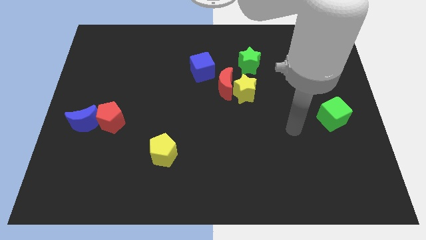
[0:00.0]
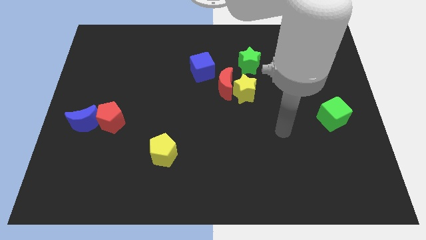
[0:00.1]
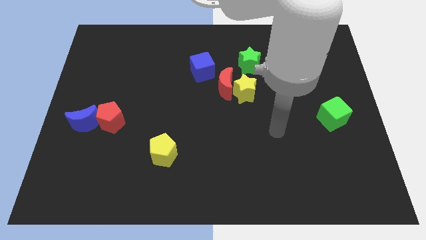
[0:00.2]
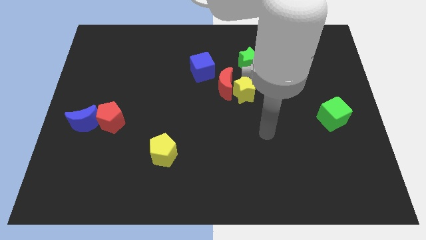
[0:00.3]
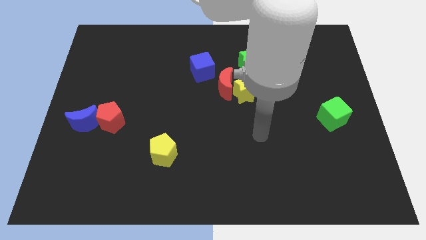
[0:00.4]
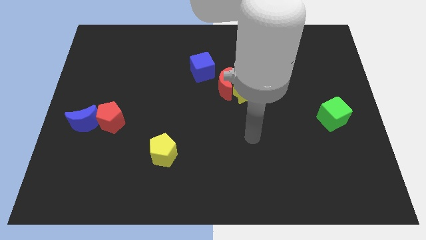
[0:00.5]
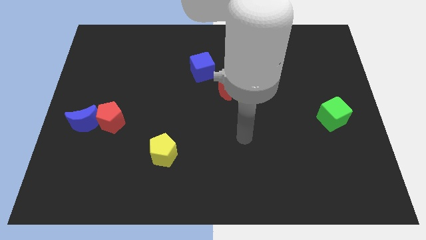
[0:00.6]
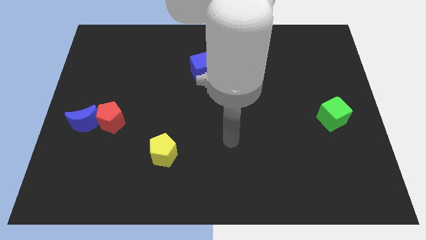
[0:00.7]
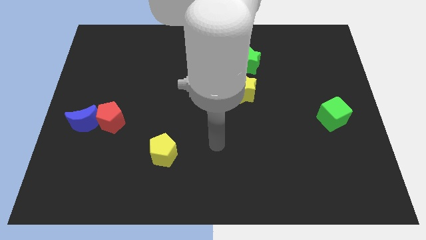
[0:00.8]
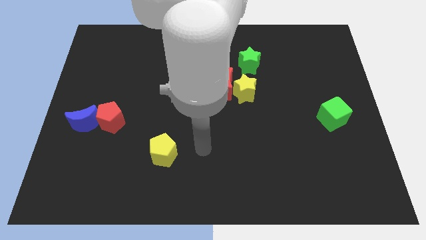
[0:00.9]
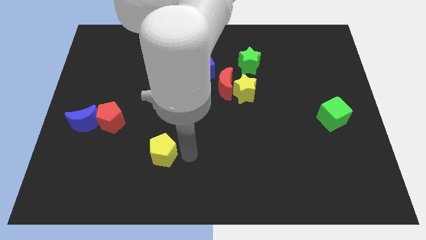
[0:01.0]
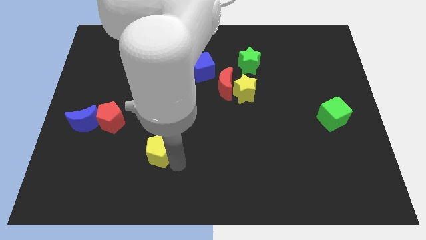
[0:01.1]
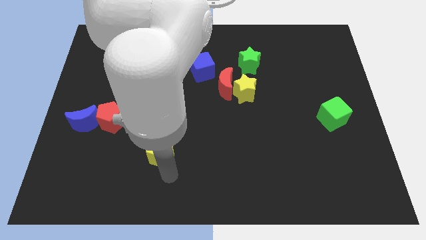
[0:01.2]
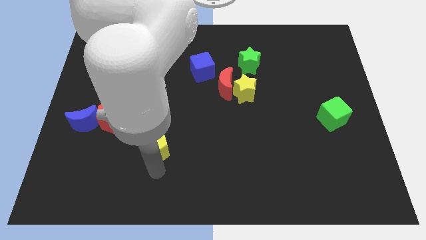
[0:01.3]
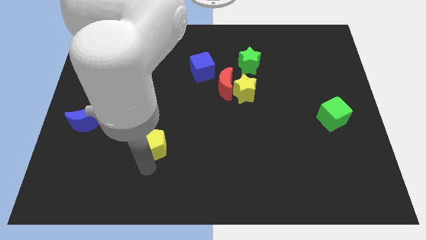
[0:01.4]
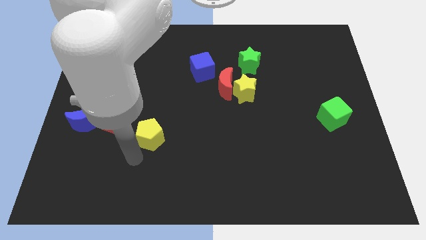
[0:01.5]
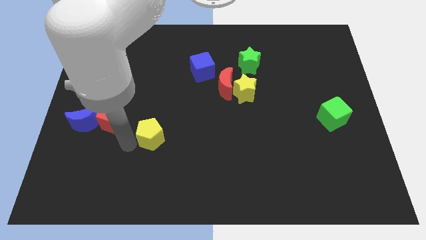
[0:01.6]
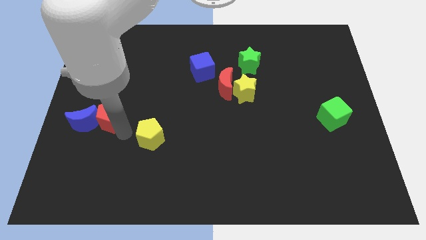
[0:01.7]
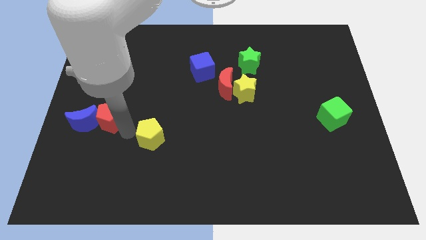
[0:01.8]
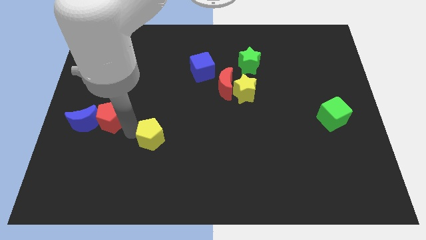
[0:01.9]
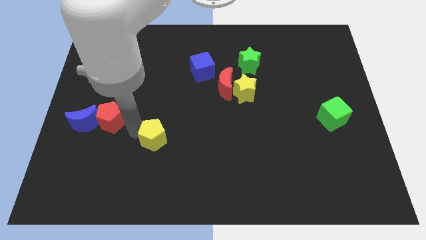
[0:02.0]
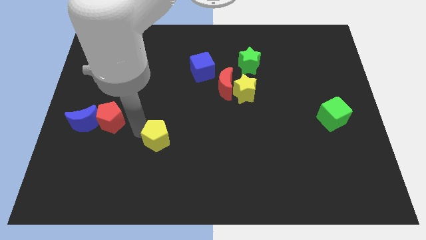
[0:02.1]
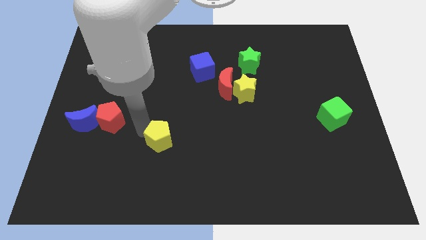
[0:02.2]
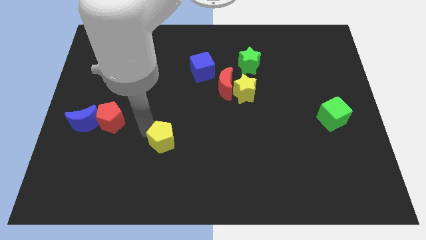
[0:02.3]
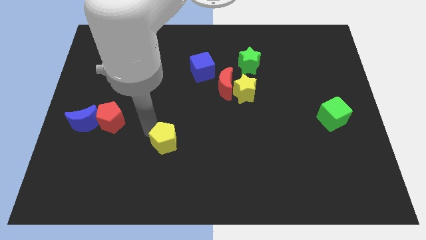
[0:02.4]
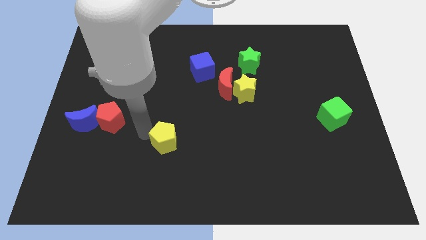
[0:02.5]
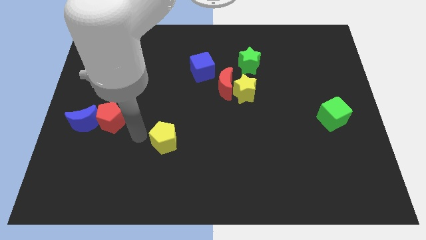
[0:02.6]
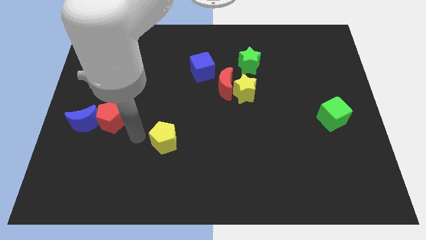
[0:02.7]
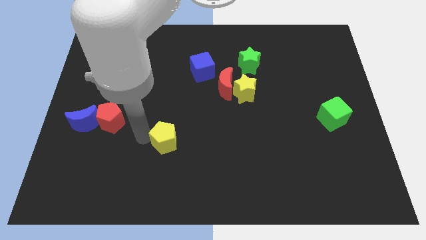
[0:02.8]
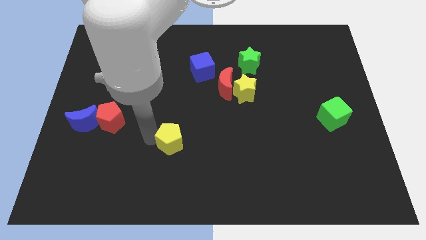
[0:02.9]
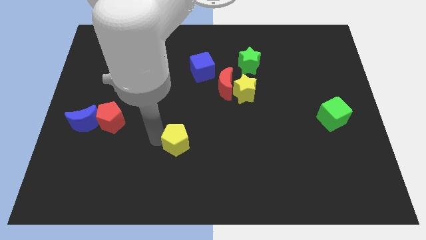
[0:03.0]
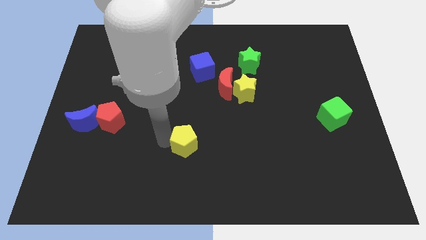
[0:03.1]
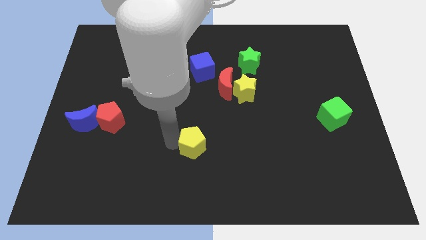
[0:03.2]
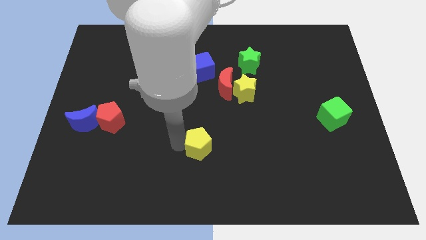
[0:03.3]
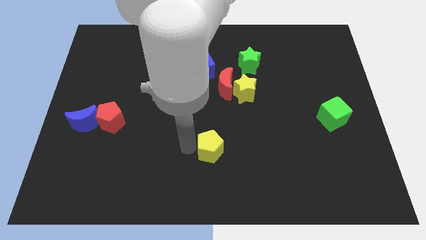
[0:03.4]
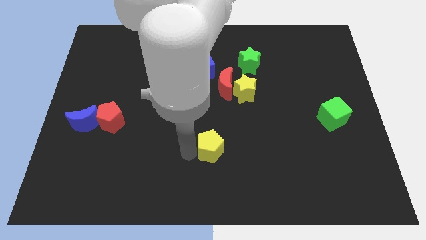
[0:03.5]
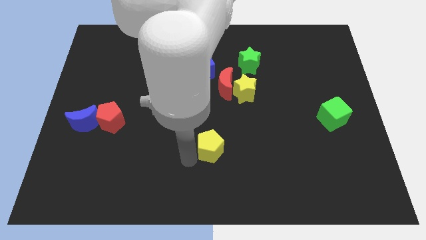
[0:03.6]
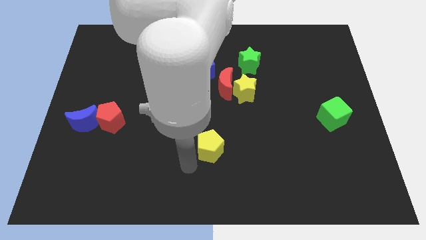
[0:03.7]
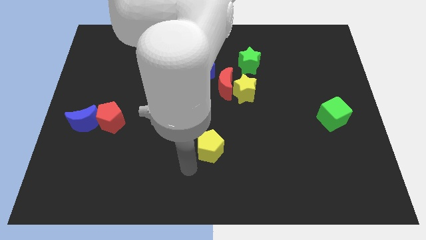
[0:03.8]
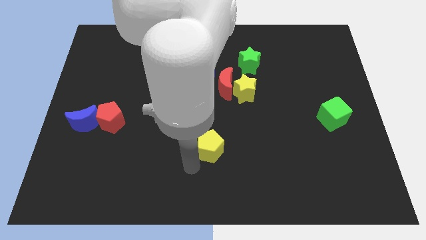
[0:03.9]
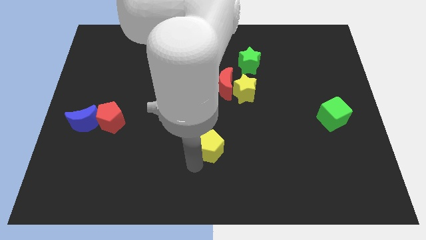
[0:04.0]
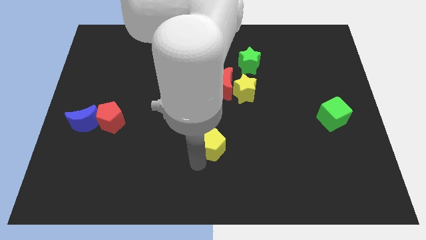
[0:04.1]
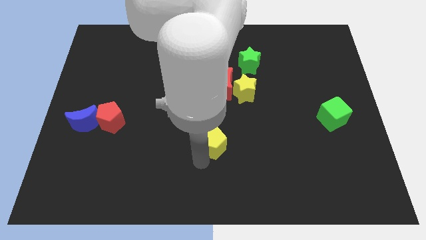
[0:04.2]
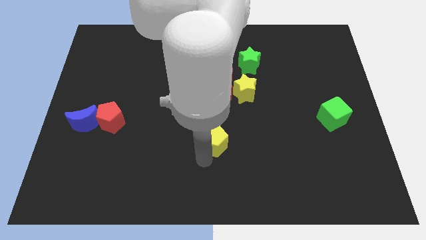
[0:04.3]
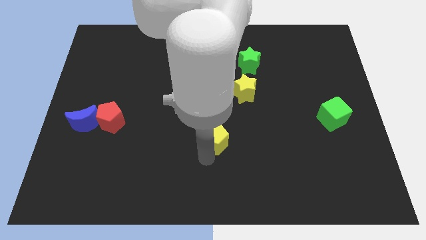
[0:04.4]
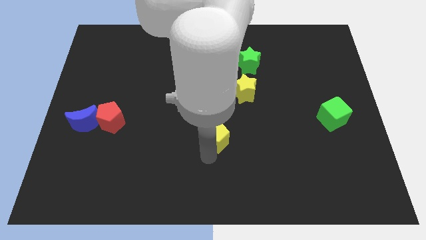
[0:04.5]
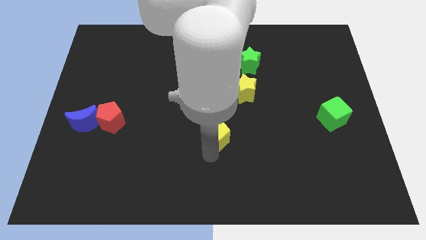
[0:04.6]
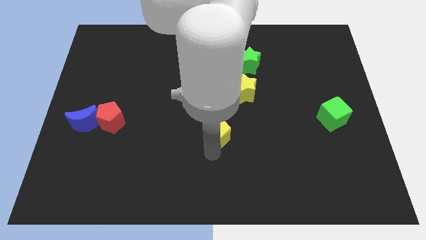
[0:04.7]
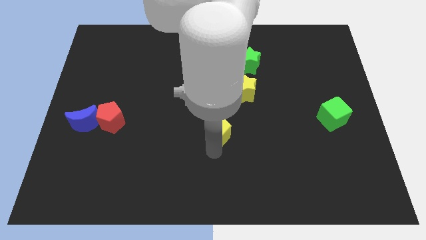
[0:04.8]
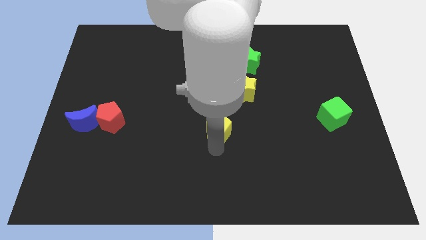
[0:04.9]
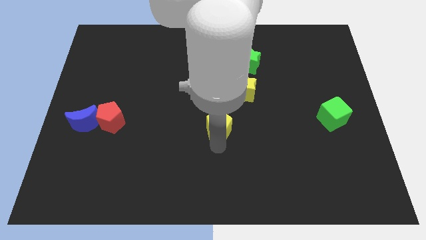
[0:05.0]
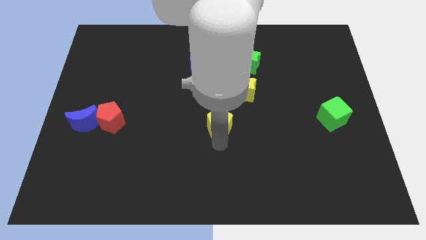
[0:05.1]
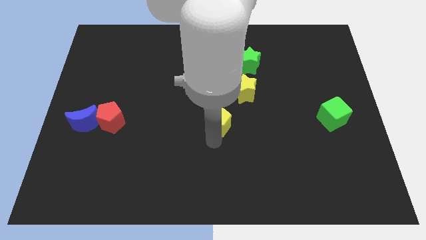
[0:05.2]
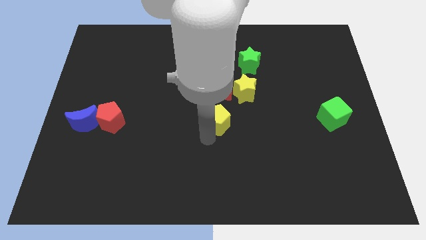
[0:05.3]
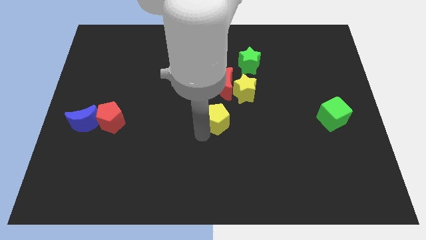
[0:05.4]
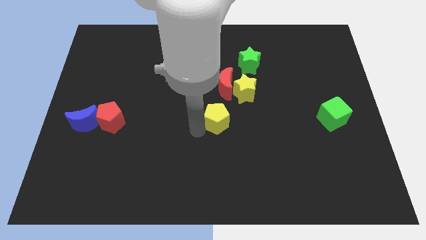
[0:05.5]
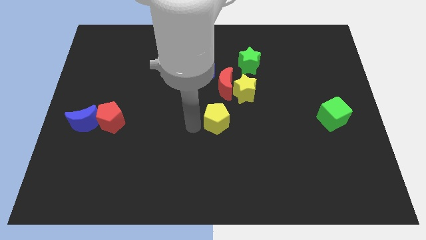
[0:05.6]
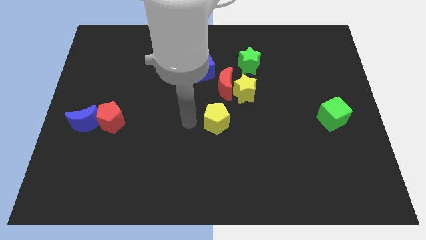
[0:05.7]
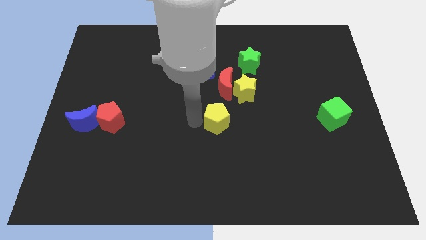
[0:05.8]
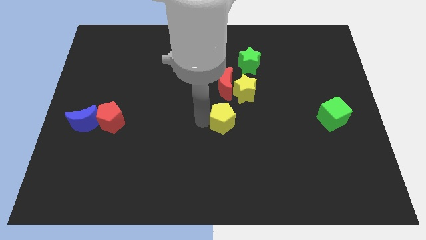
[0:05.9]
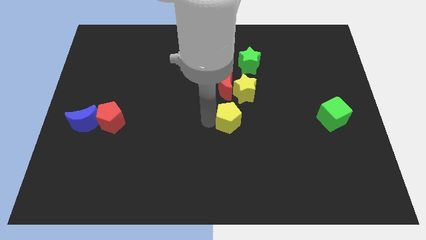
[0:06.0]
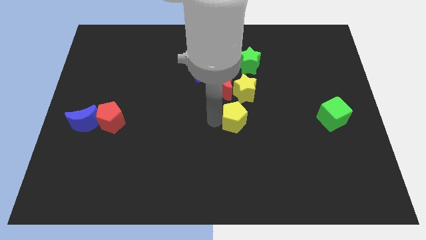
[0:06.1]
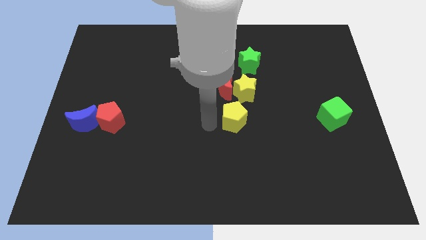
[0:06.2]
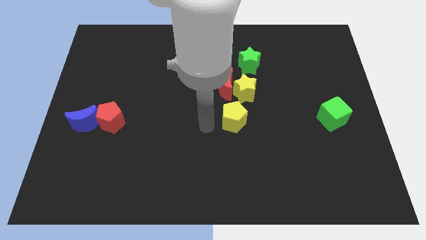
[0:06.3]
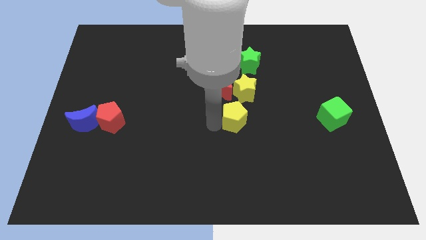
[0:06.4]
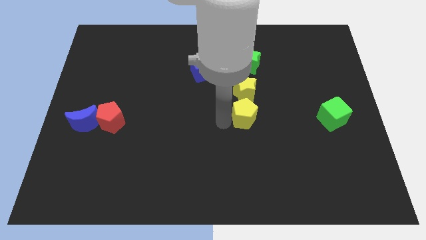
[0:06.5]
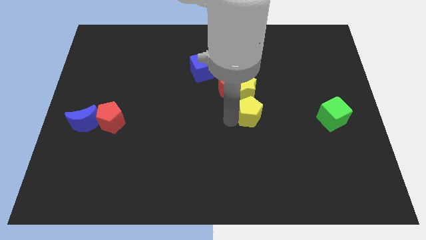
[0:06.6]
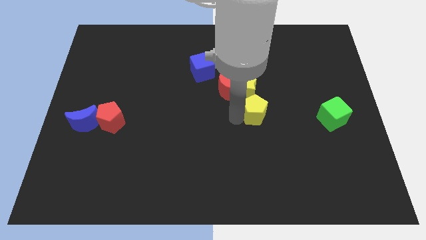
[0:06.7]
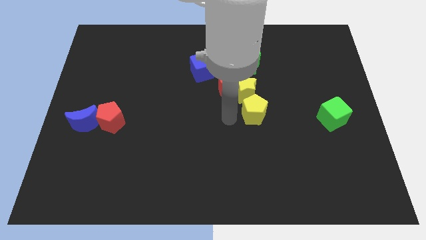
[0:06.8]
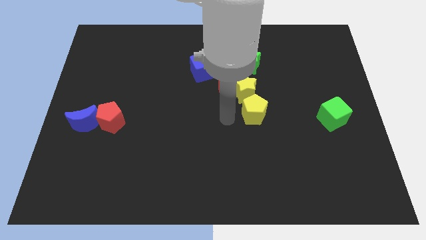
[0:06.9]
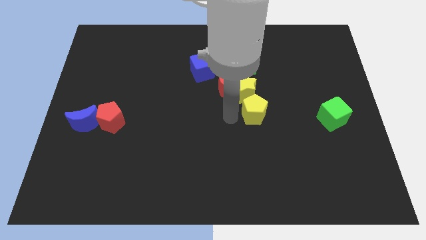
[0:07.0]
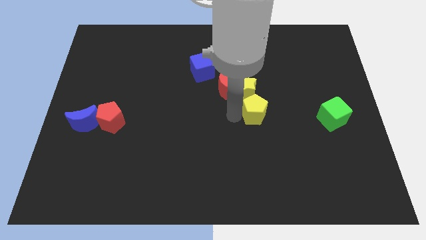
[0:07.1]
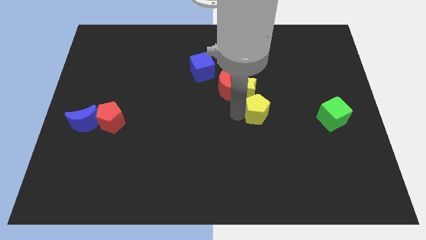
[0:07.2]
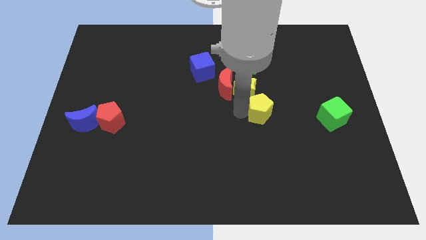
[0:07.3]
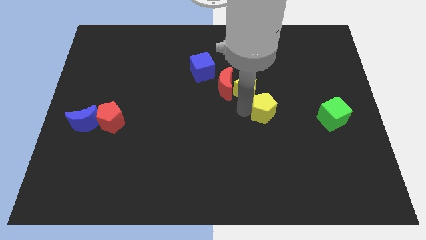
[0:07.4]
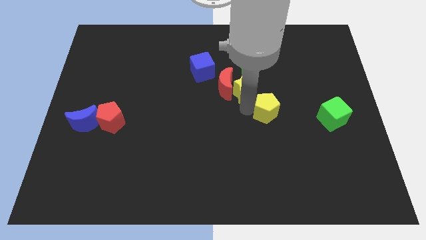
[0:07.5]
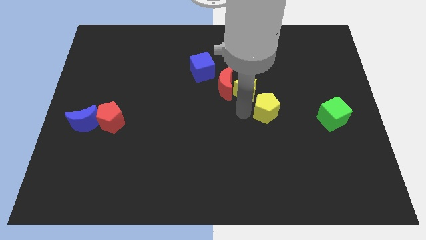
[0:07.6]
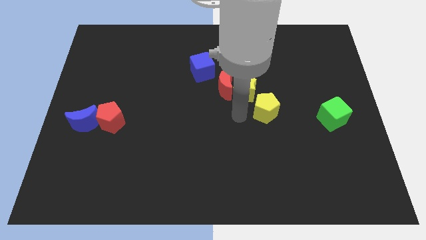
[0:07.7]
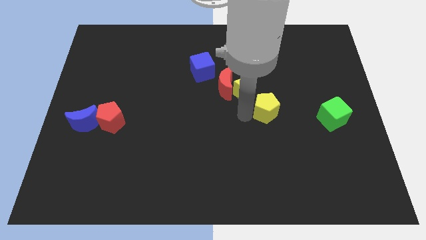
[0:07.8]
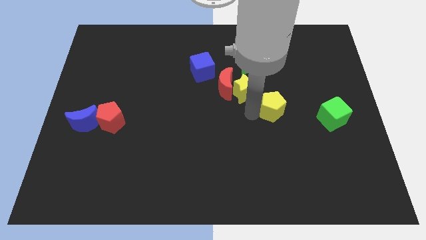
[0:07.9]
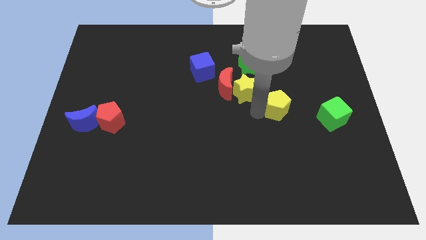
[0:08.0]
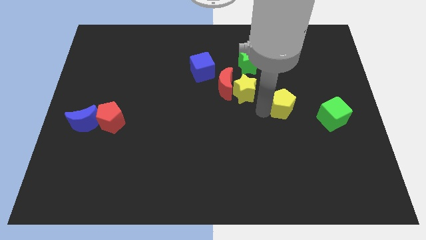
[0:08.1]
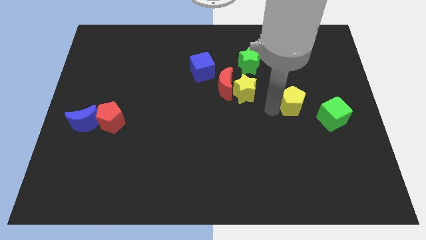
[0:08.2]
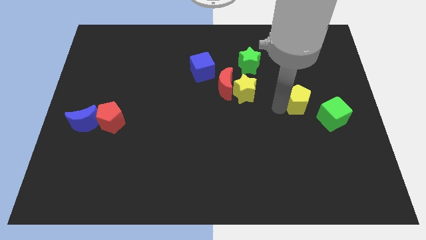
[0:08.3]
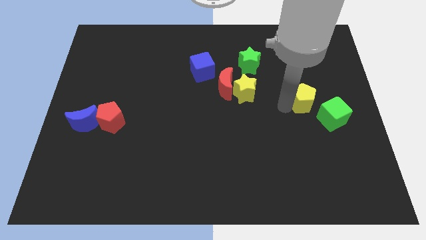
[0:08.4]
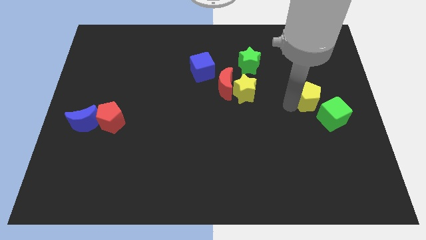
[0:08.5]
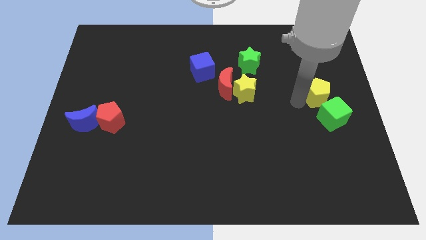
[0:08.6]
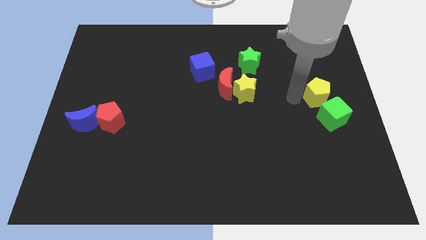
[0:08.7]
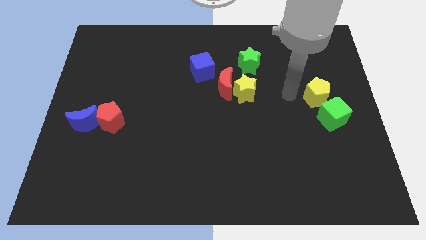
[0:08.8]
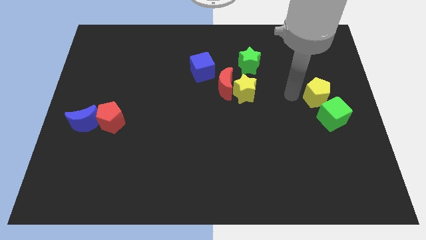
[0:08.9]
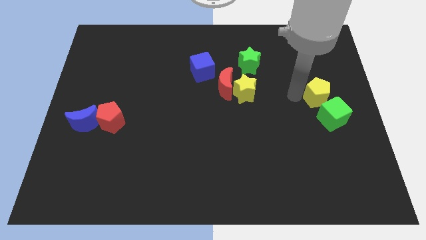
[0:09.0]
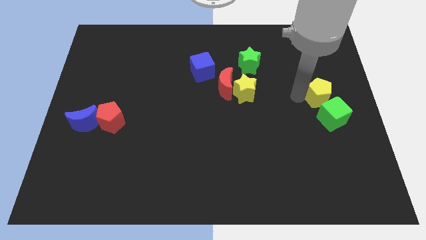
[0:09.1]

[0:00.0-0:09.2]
move the yellow pentagon to the right side
